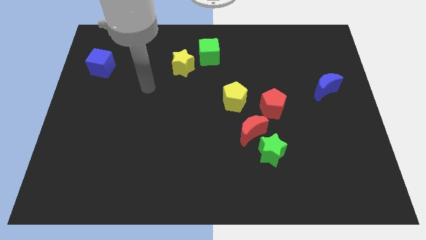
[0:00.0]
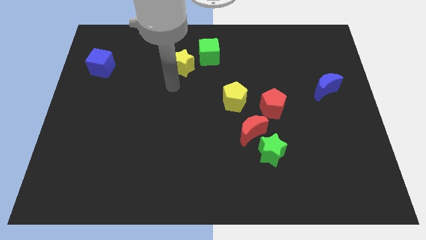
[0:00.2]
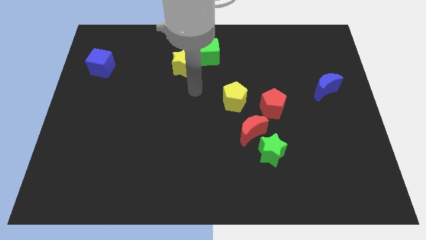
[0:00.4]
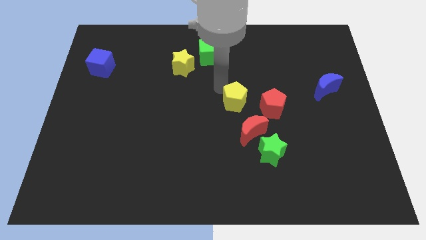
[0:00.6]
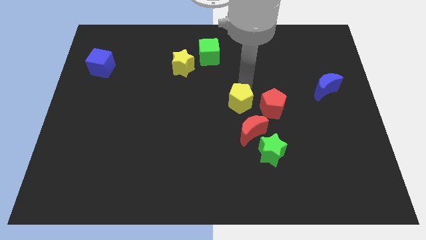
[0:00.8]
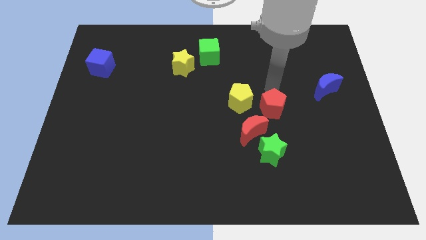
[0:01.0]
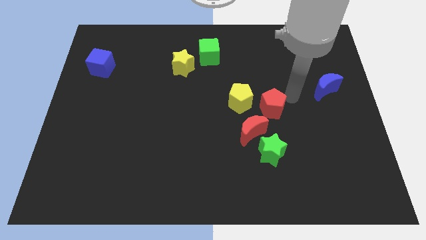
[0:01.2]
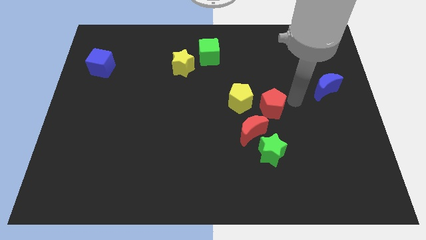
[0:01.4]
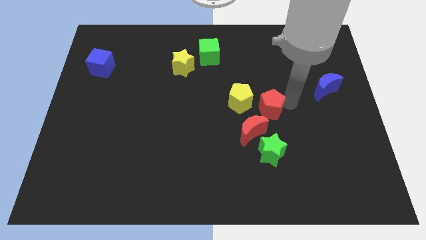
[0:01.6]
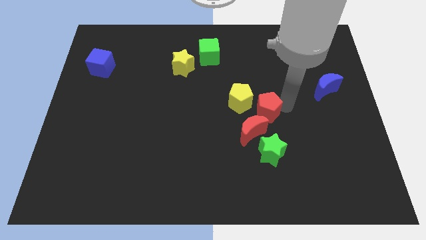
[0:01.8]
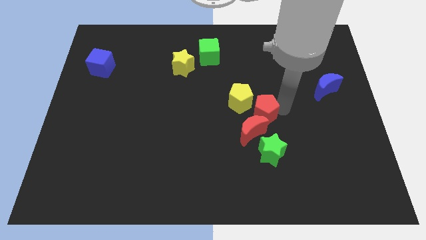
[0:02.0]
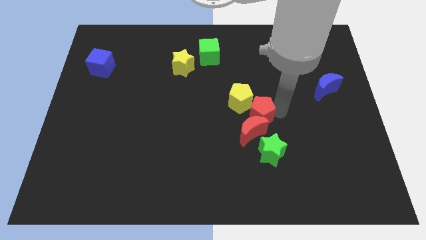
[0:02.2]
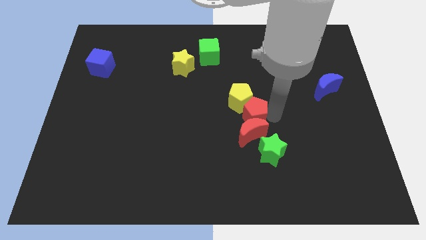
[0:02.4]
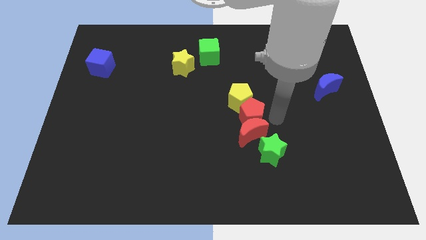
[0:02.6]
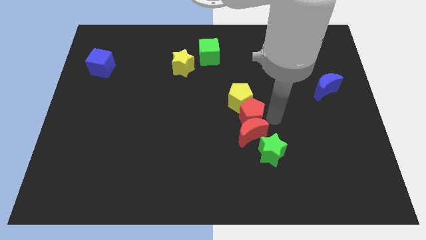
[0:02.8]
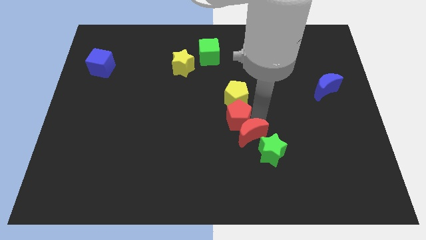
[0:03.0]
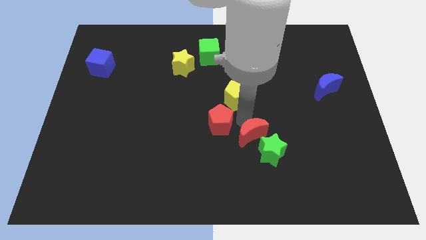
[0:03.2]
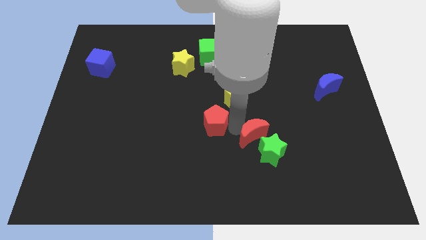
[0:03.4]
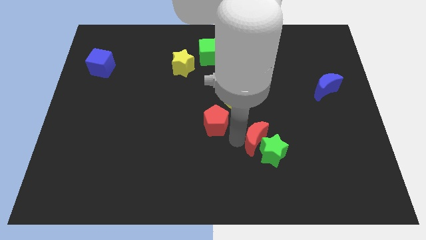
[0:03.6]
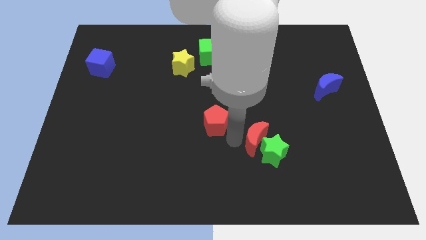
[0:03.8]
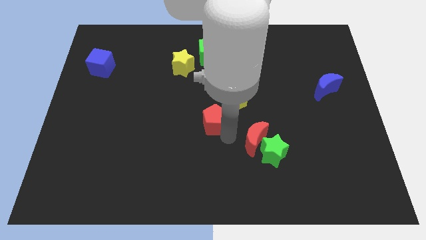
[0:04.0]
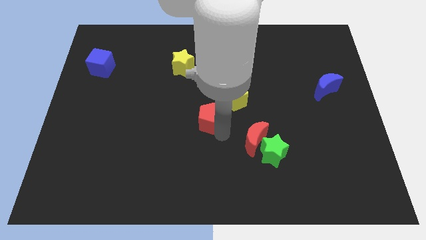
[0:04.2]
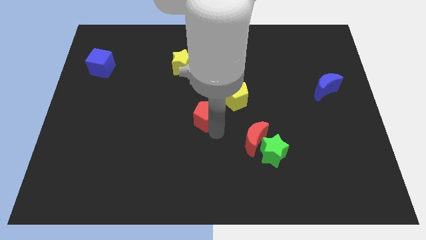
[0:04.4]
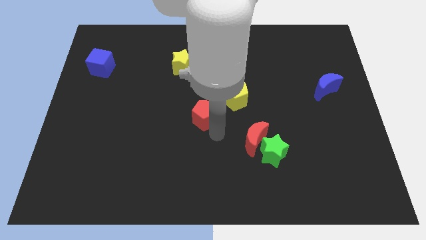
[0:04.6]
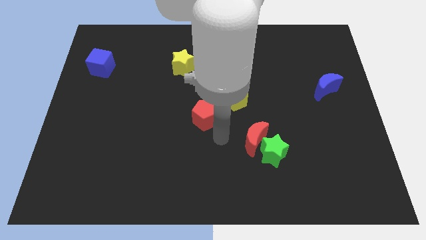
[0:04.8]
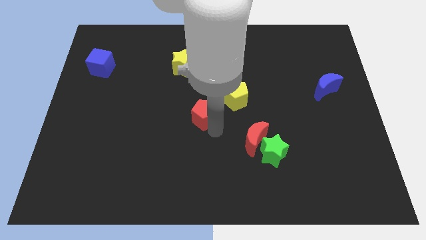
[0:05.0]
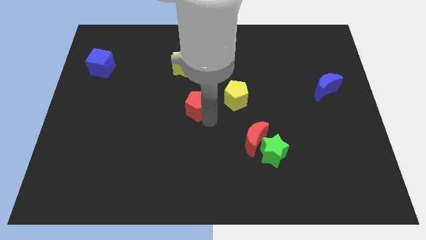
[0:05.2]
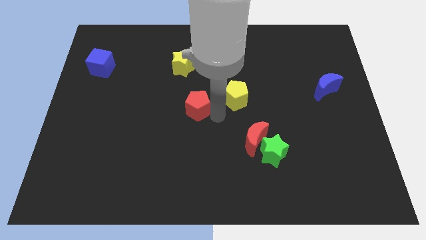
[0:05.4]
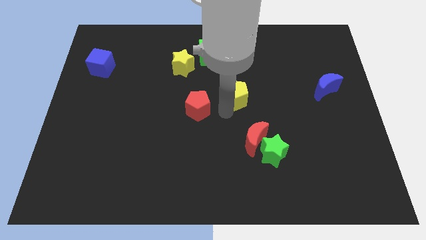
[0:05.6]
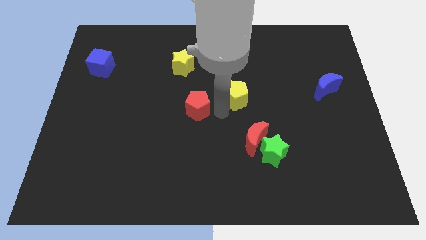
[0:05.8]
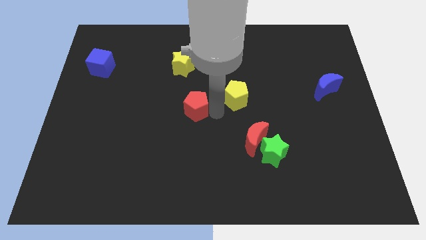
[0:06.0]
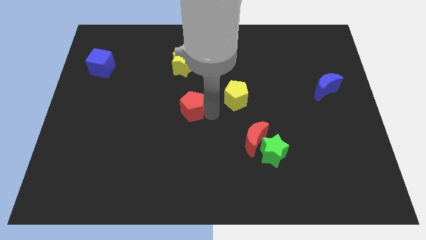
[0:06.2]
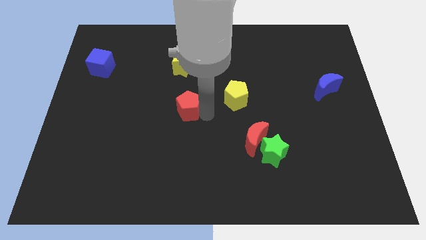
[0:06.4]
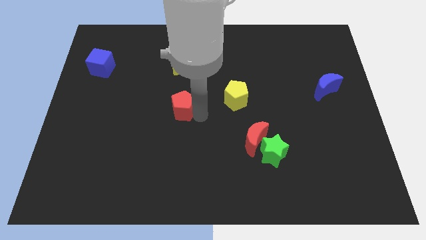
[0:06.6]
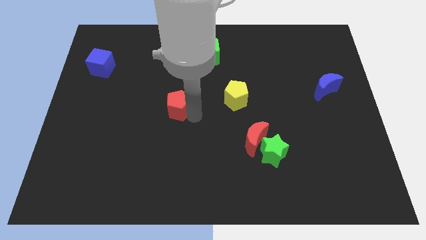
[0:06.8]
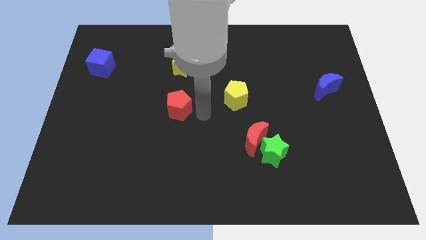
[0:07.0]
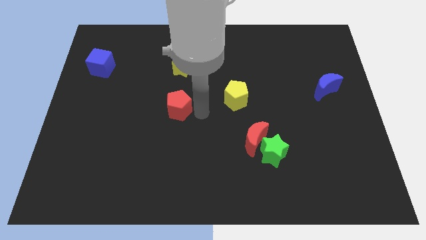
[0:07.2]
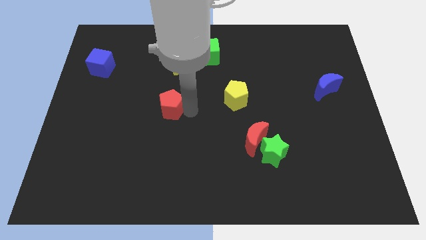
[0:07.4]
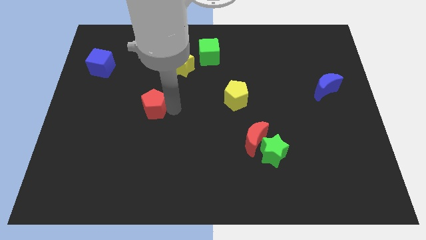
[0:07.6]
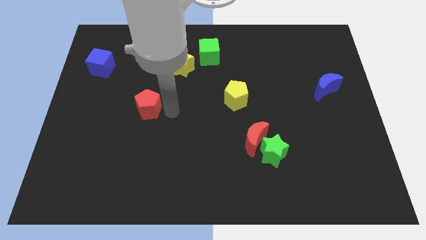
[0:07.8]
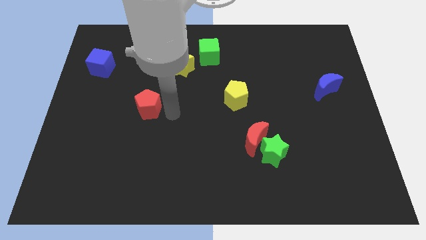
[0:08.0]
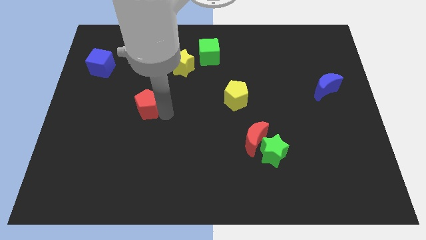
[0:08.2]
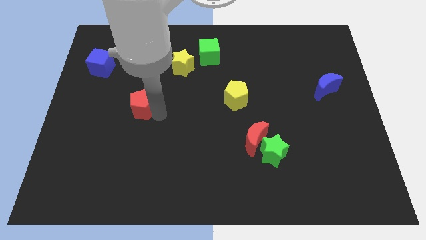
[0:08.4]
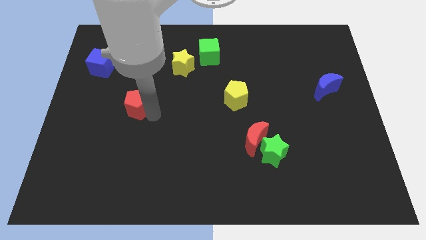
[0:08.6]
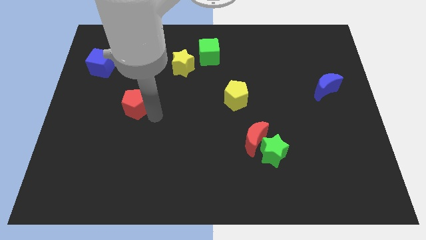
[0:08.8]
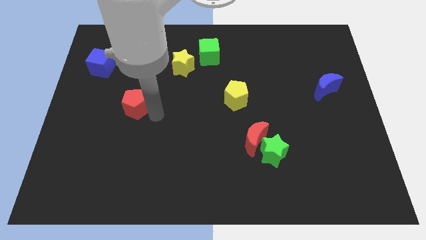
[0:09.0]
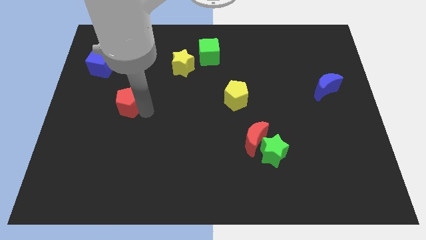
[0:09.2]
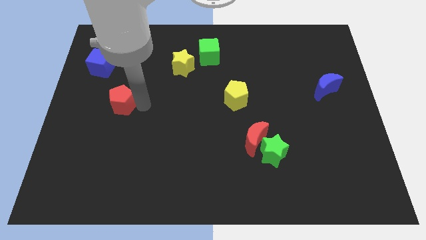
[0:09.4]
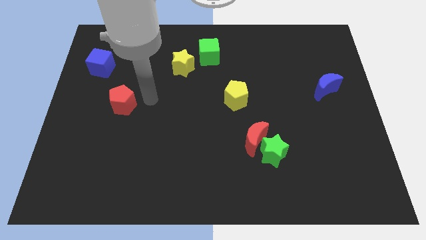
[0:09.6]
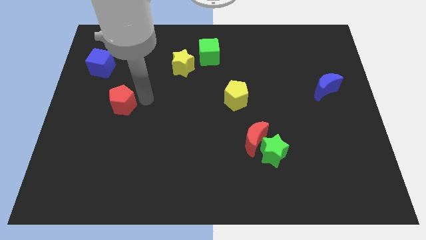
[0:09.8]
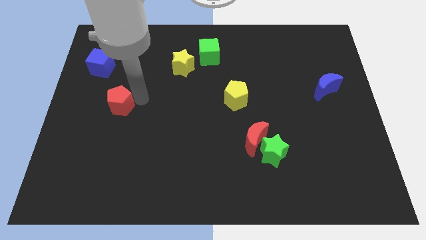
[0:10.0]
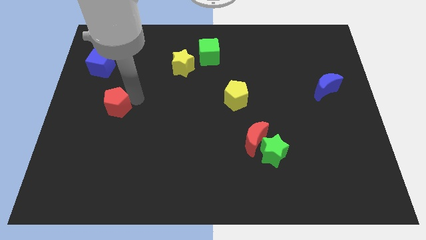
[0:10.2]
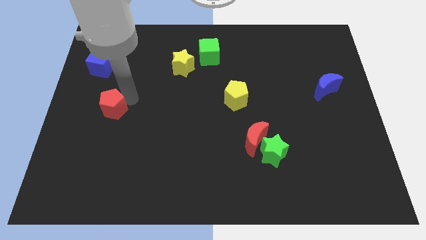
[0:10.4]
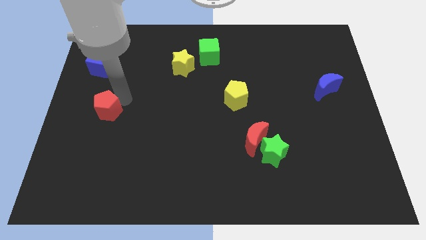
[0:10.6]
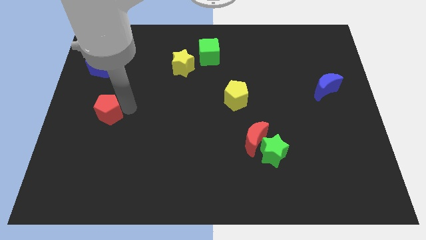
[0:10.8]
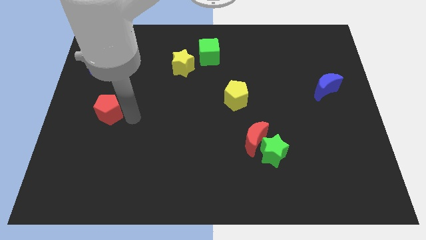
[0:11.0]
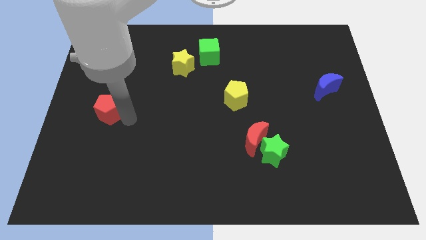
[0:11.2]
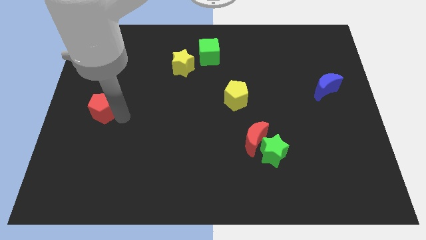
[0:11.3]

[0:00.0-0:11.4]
slide the red pentagon to the center left

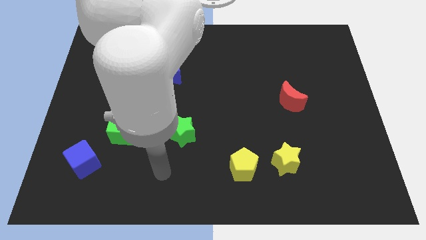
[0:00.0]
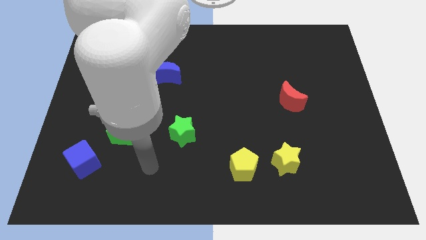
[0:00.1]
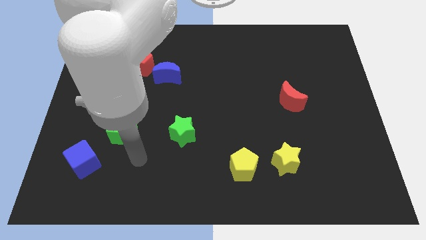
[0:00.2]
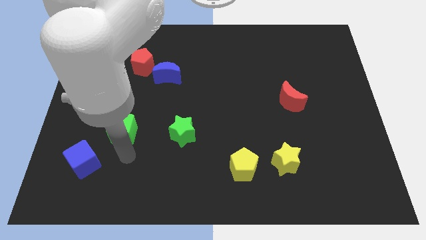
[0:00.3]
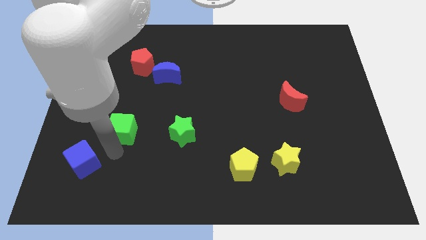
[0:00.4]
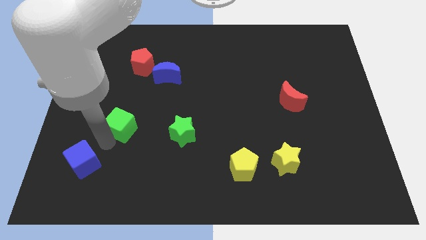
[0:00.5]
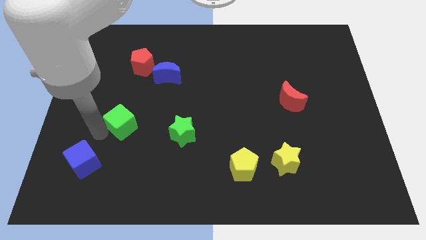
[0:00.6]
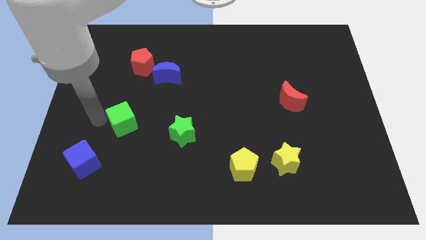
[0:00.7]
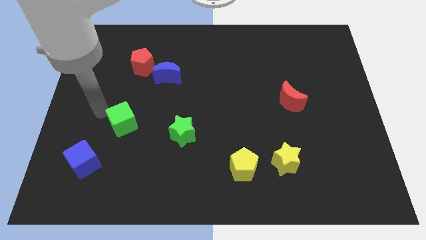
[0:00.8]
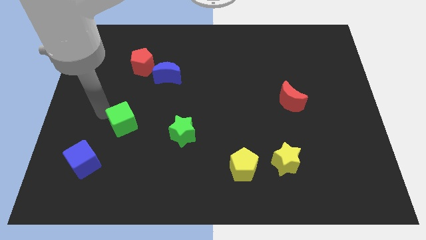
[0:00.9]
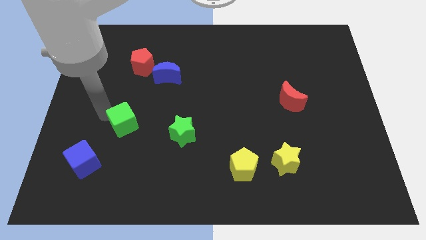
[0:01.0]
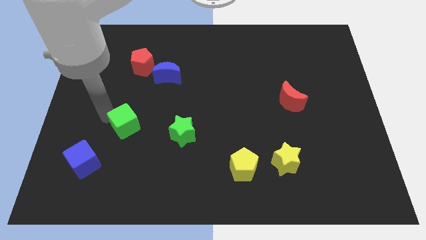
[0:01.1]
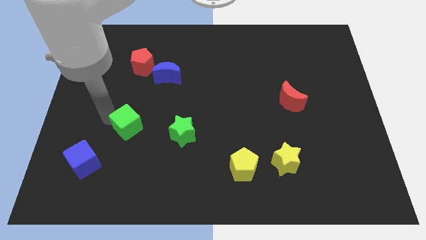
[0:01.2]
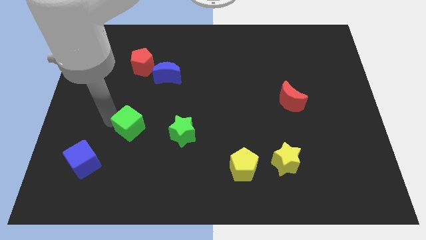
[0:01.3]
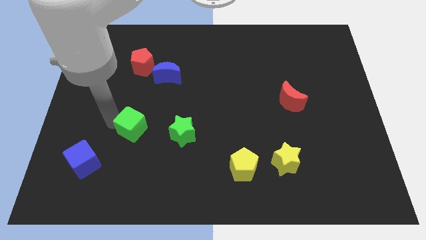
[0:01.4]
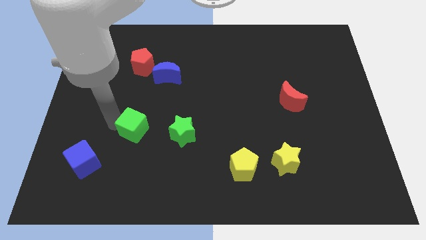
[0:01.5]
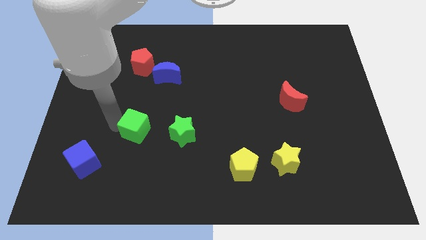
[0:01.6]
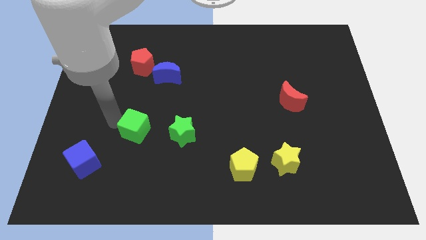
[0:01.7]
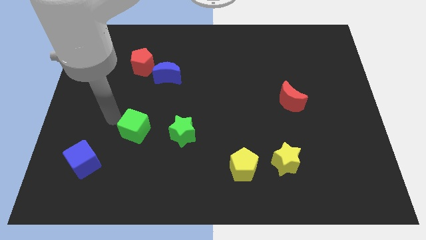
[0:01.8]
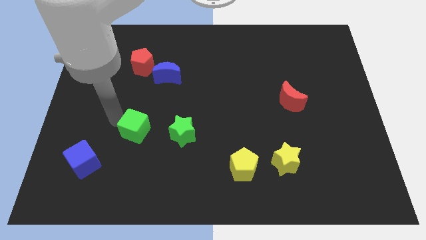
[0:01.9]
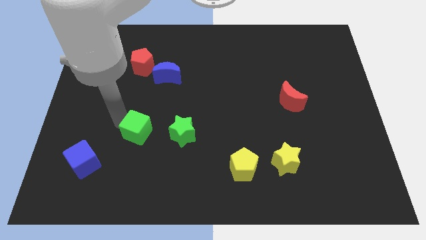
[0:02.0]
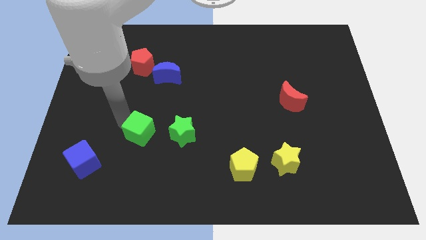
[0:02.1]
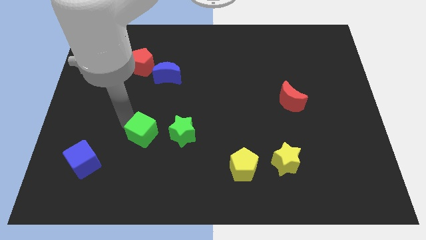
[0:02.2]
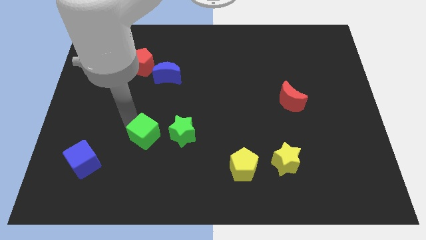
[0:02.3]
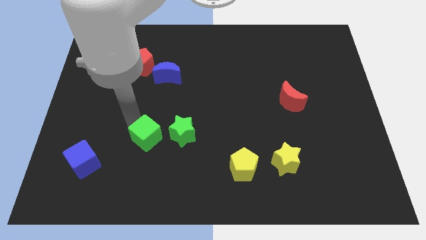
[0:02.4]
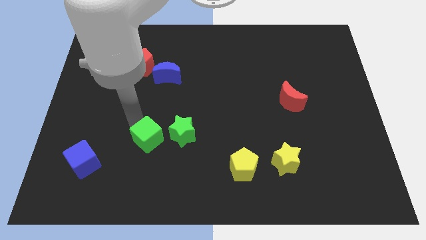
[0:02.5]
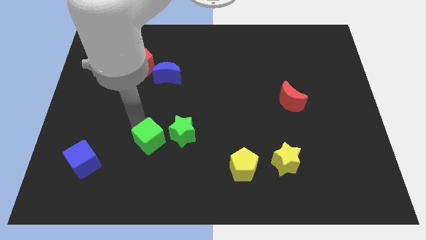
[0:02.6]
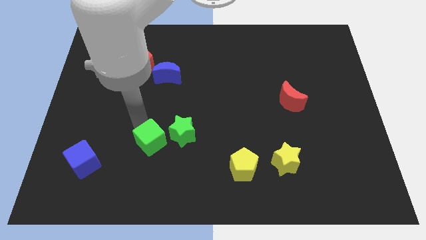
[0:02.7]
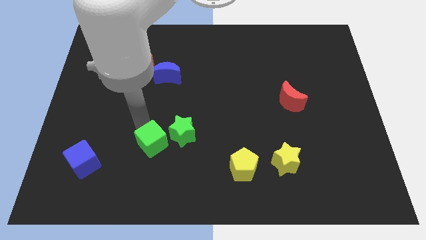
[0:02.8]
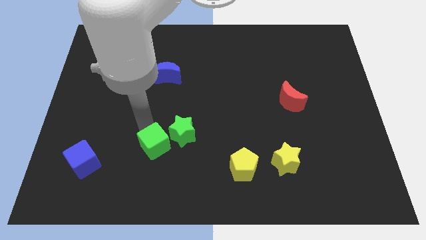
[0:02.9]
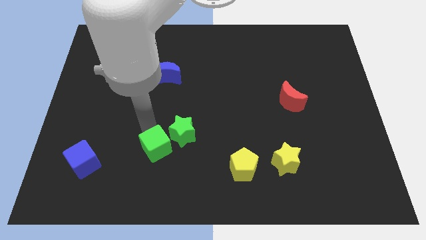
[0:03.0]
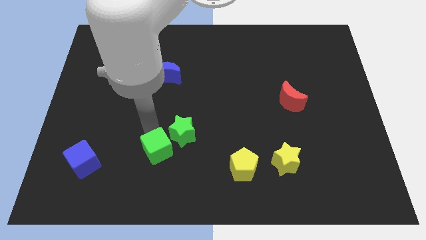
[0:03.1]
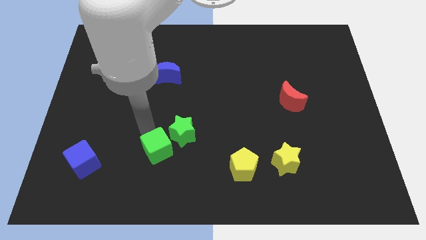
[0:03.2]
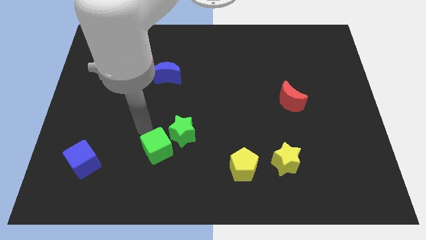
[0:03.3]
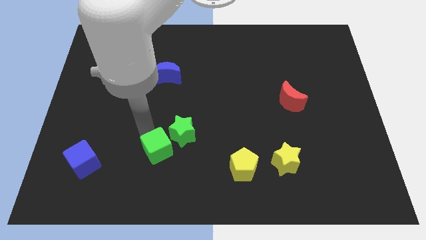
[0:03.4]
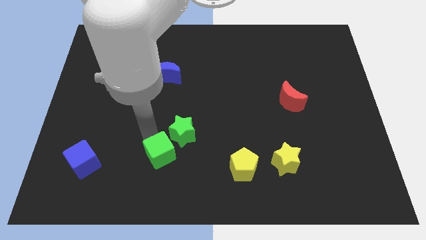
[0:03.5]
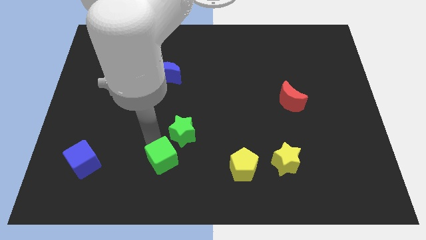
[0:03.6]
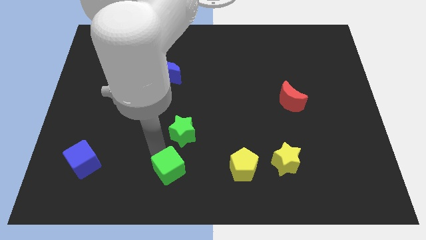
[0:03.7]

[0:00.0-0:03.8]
put the green cube to the bottom
